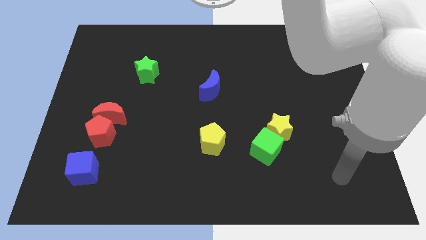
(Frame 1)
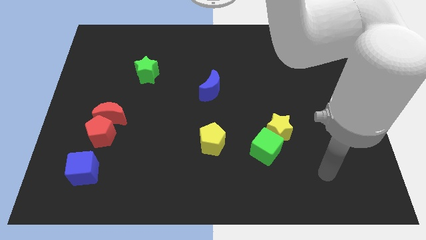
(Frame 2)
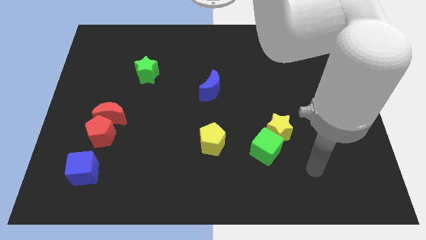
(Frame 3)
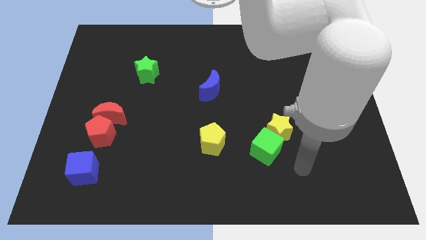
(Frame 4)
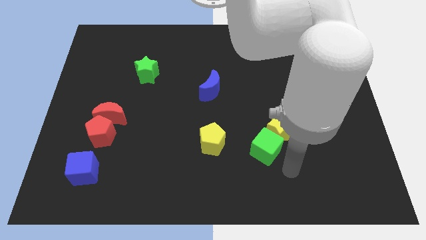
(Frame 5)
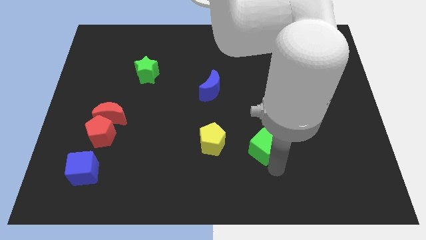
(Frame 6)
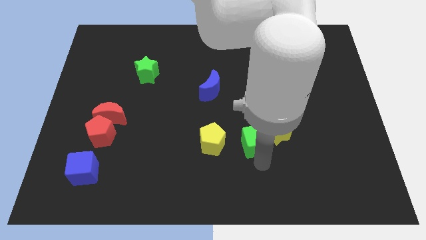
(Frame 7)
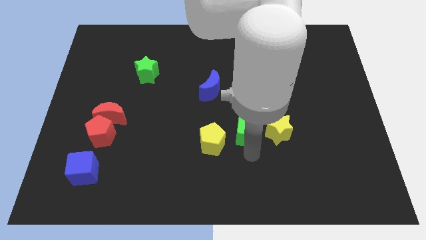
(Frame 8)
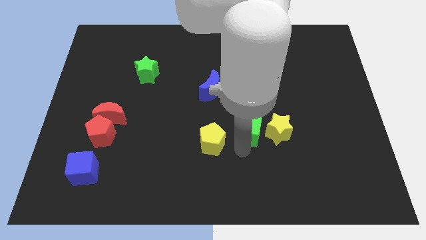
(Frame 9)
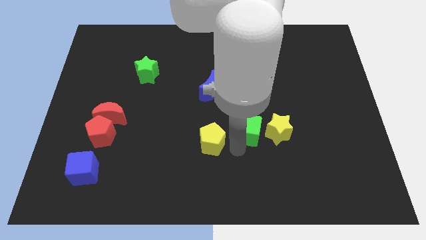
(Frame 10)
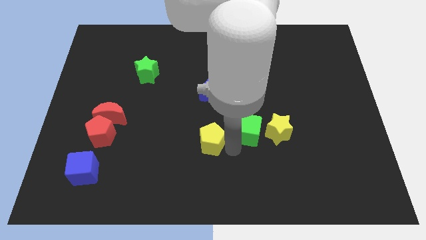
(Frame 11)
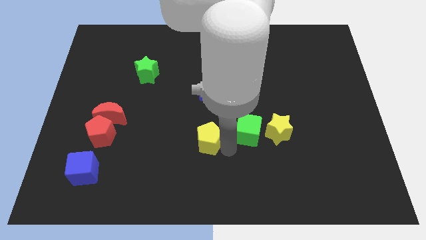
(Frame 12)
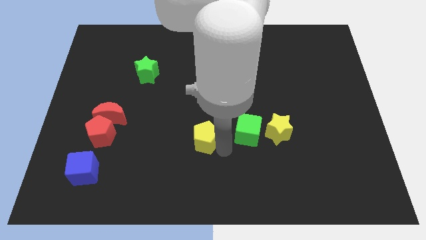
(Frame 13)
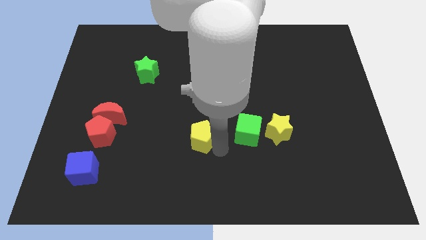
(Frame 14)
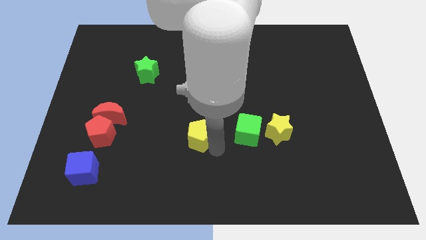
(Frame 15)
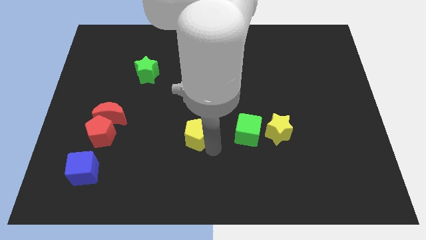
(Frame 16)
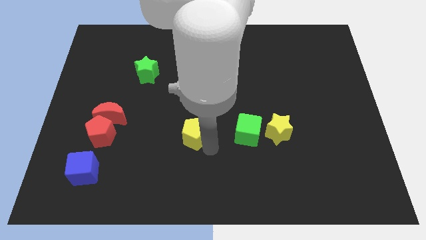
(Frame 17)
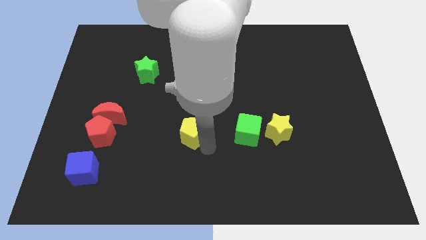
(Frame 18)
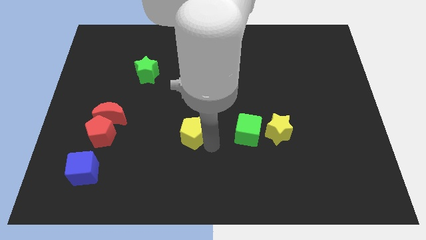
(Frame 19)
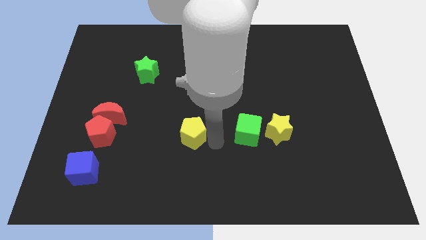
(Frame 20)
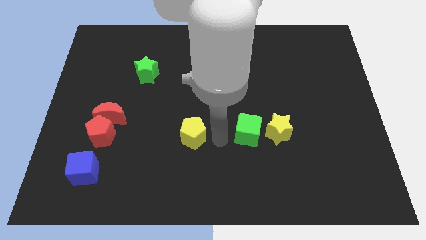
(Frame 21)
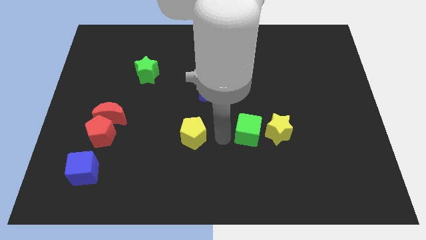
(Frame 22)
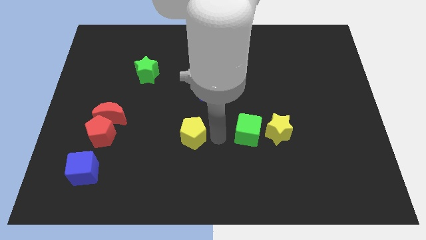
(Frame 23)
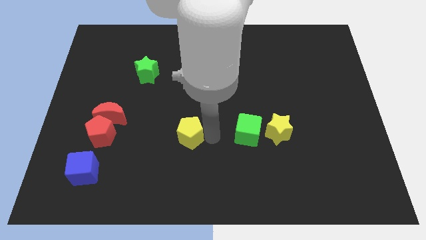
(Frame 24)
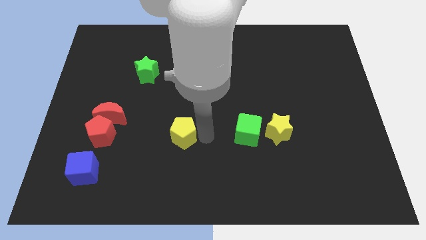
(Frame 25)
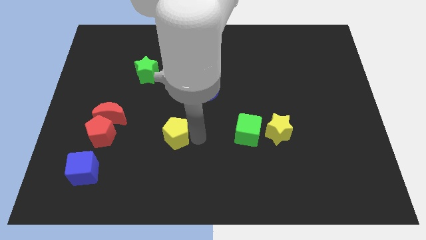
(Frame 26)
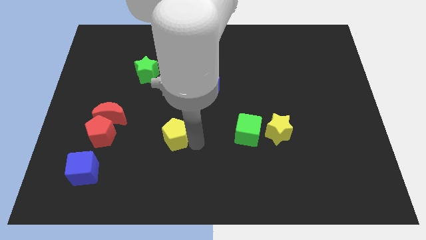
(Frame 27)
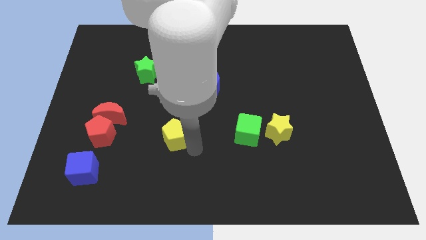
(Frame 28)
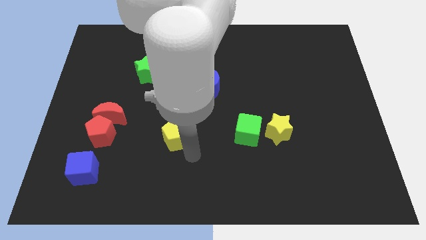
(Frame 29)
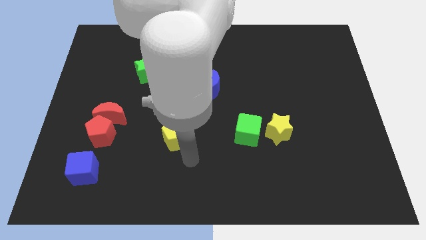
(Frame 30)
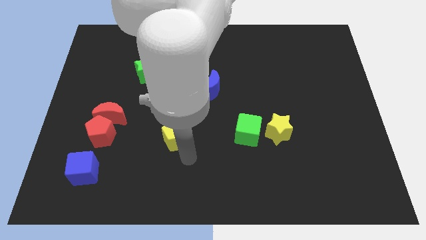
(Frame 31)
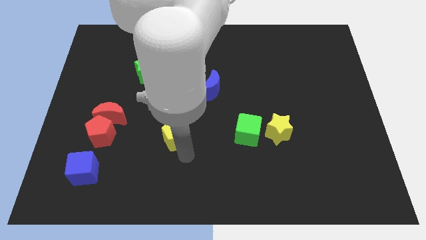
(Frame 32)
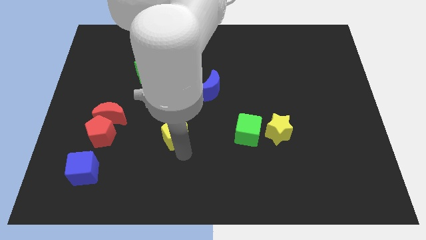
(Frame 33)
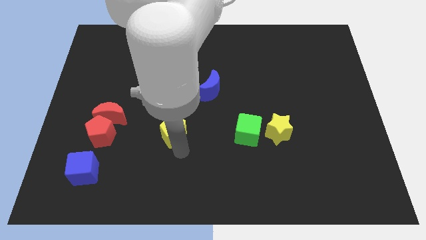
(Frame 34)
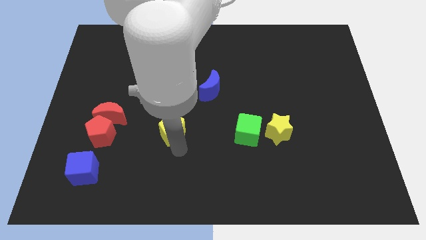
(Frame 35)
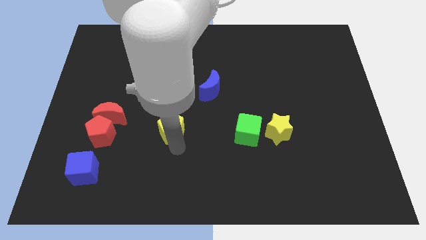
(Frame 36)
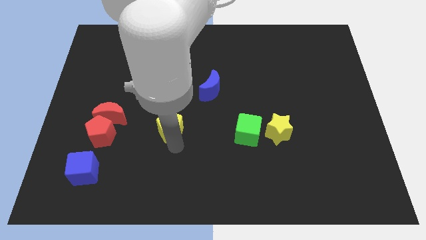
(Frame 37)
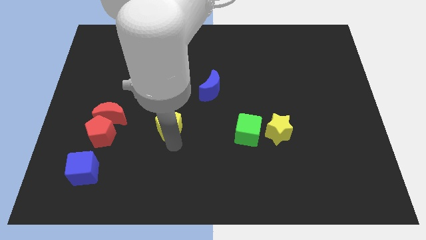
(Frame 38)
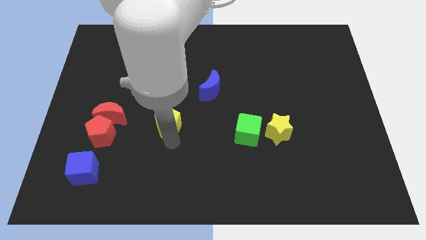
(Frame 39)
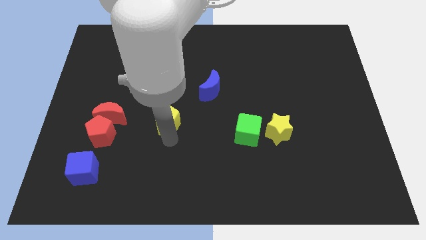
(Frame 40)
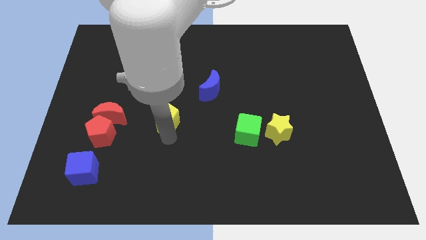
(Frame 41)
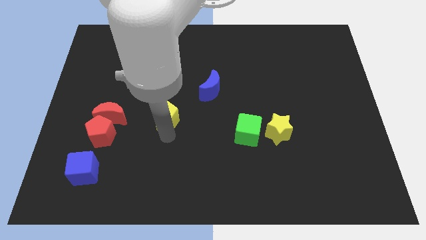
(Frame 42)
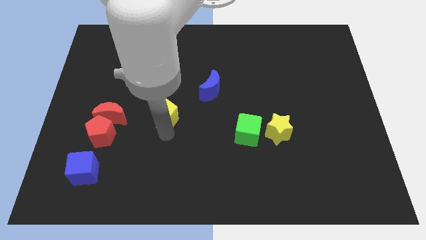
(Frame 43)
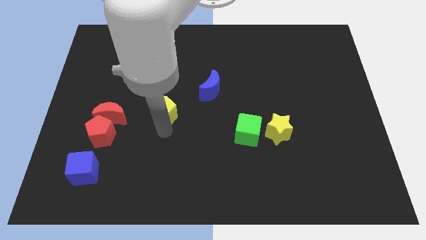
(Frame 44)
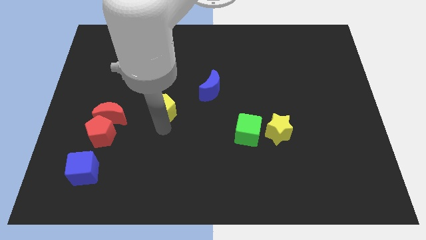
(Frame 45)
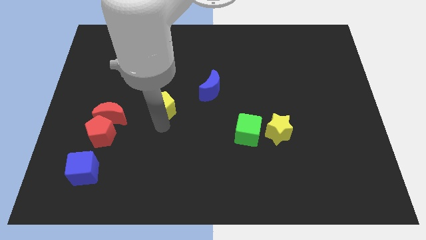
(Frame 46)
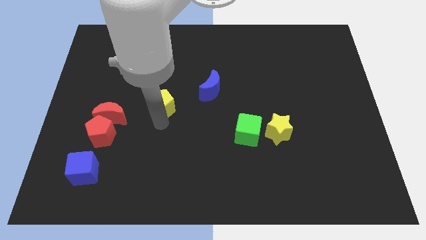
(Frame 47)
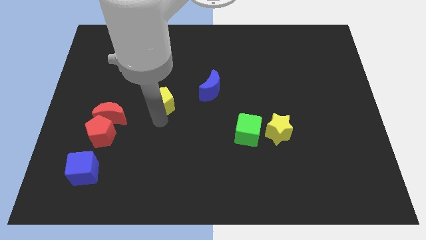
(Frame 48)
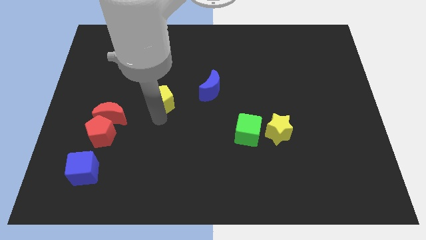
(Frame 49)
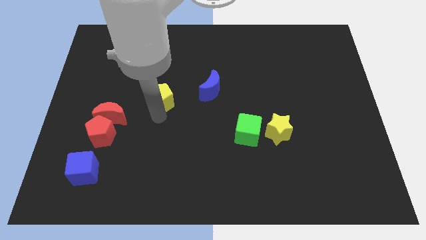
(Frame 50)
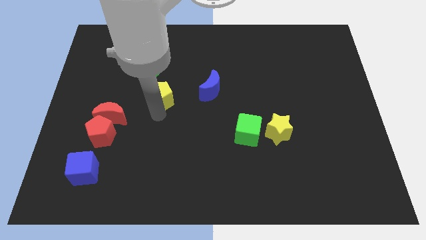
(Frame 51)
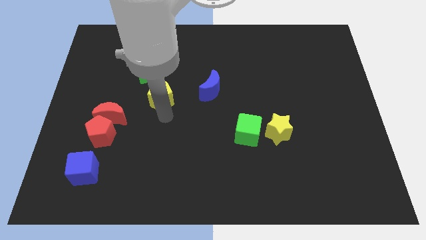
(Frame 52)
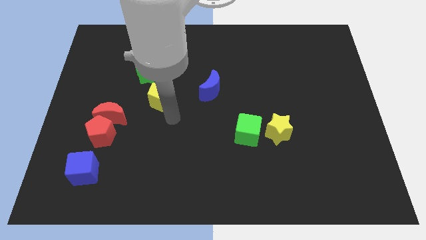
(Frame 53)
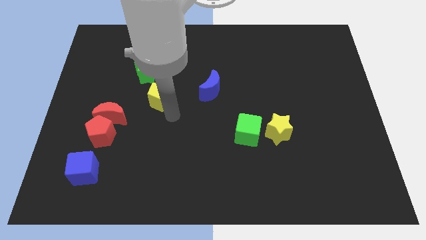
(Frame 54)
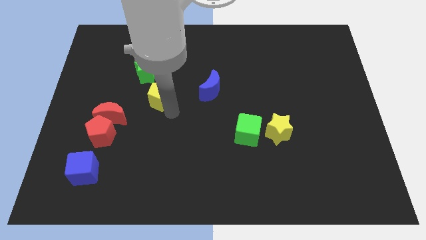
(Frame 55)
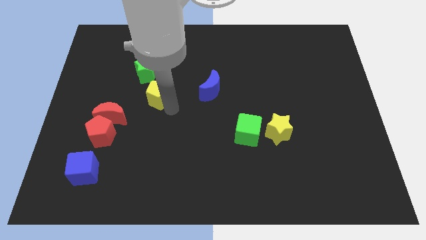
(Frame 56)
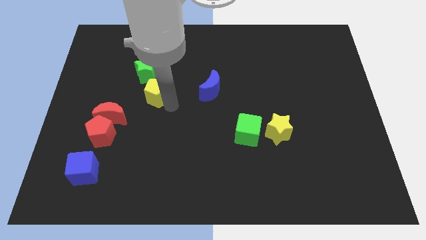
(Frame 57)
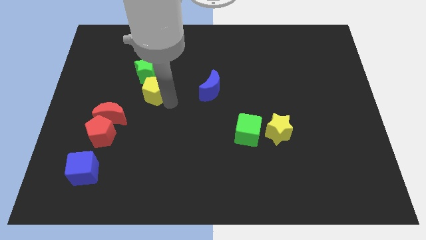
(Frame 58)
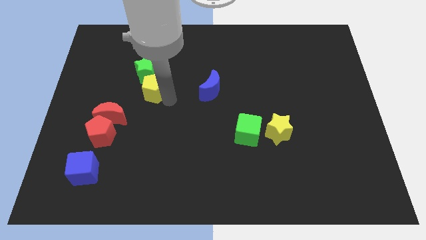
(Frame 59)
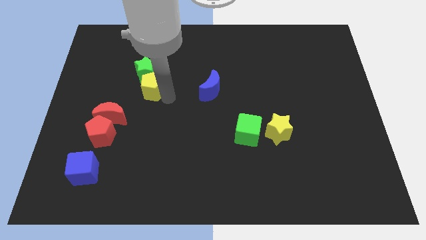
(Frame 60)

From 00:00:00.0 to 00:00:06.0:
move the yellow pentagon close to the green star

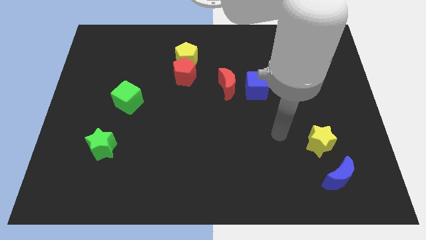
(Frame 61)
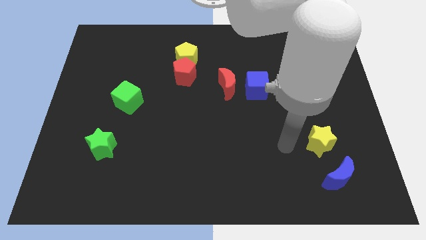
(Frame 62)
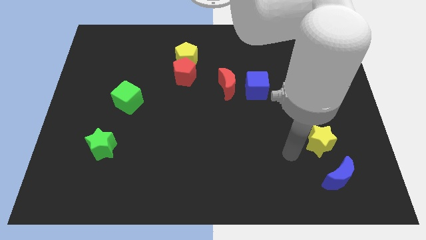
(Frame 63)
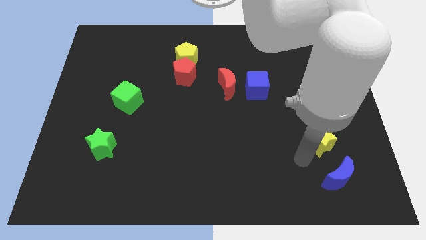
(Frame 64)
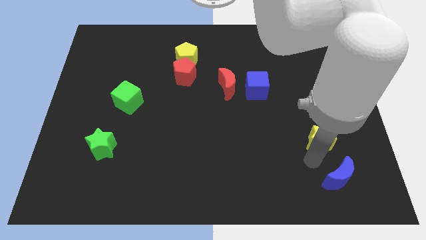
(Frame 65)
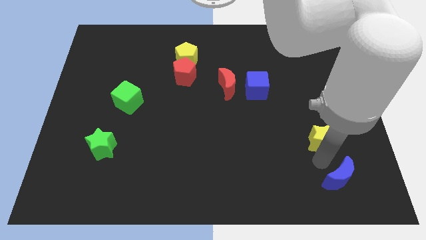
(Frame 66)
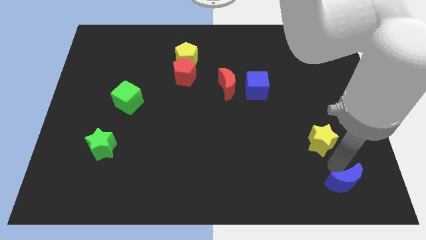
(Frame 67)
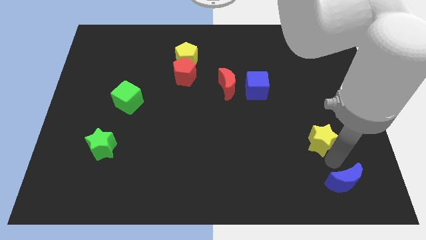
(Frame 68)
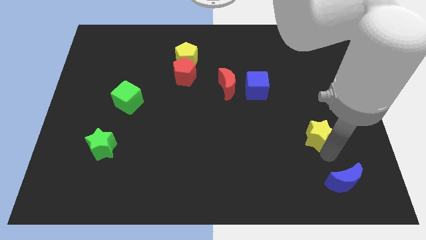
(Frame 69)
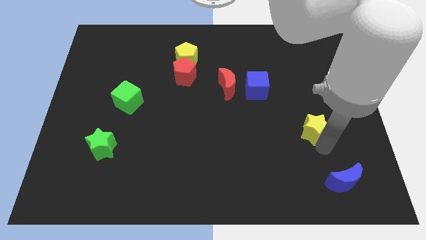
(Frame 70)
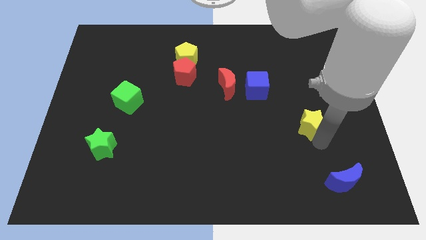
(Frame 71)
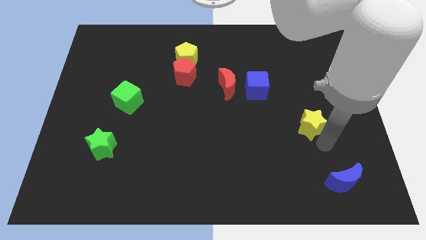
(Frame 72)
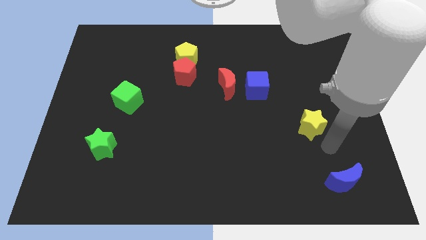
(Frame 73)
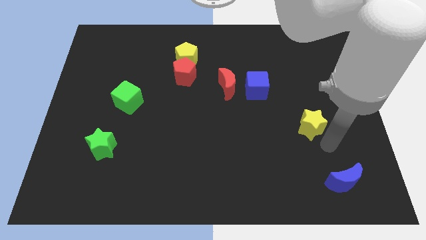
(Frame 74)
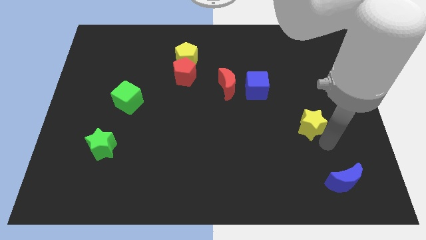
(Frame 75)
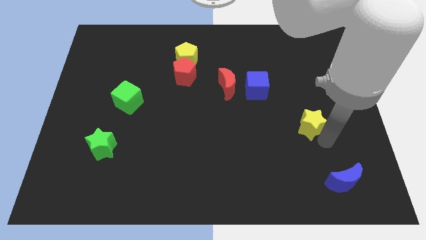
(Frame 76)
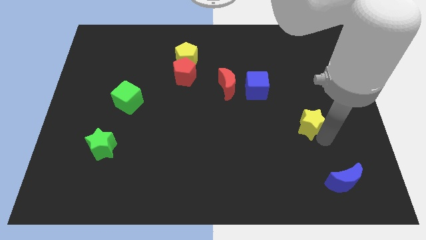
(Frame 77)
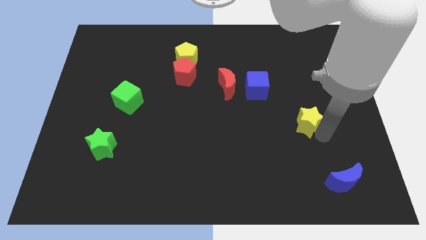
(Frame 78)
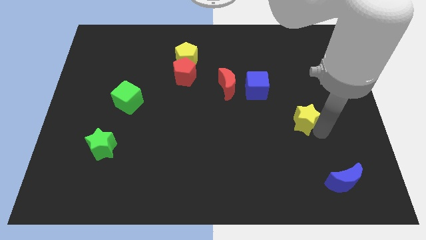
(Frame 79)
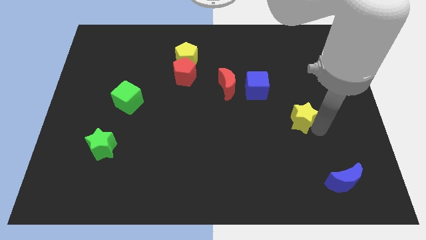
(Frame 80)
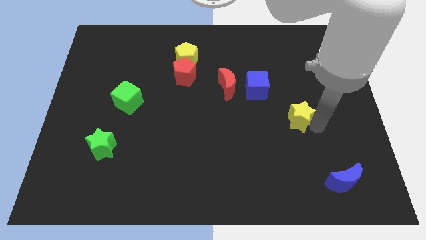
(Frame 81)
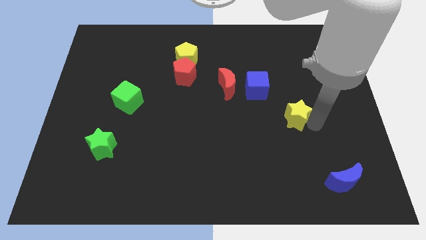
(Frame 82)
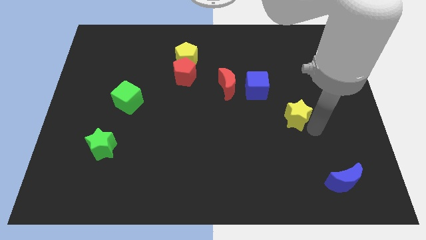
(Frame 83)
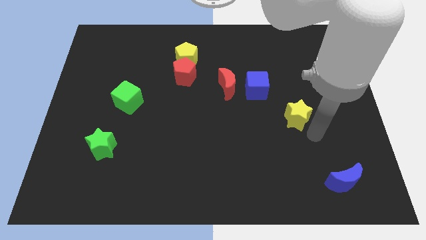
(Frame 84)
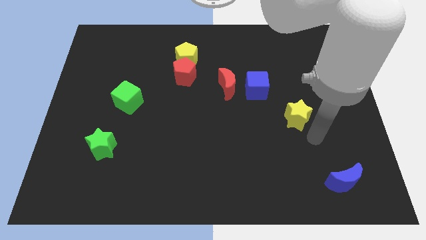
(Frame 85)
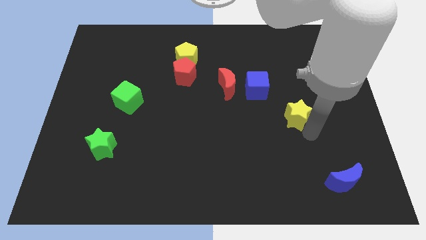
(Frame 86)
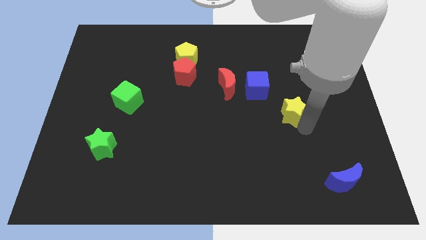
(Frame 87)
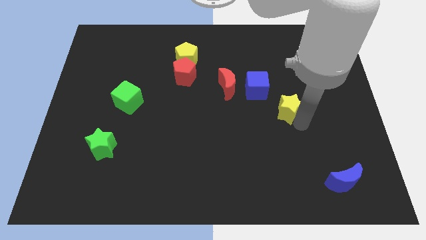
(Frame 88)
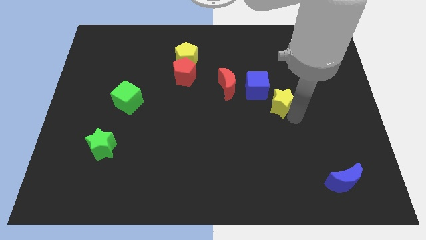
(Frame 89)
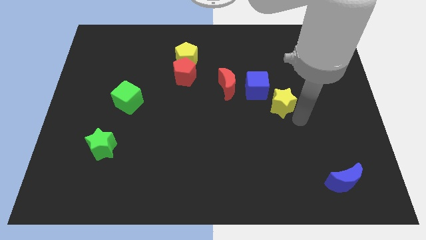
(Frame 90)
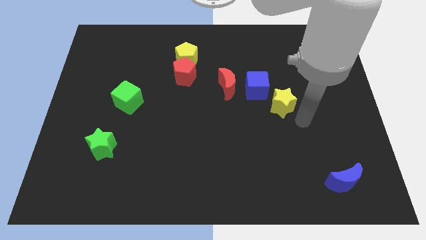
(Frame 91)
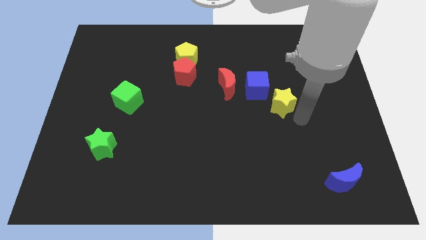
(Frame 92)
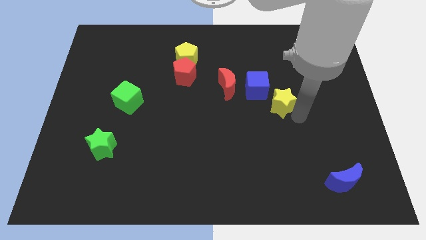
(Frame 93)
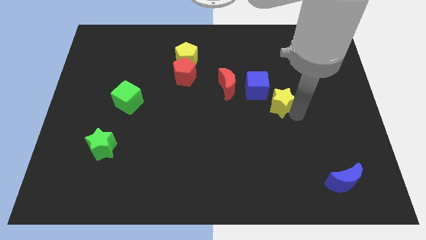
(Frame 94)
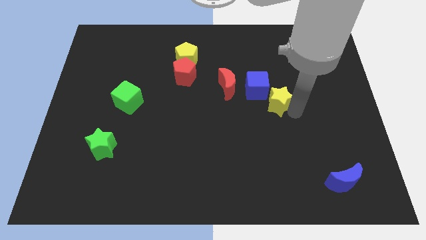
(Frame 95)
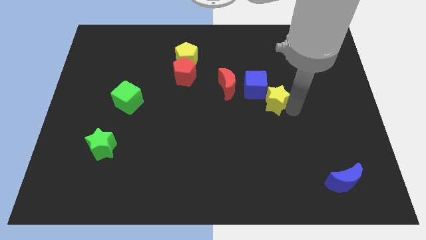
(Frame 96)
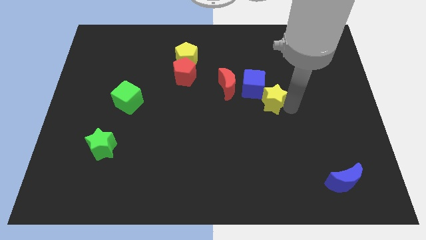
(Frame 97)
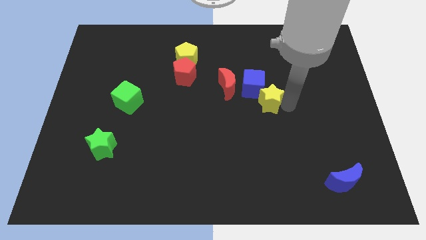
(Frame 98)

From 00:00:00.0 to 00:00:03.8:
push the yellow star close to the blue cube
